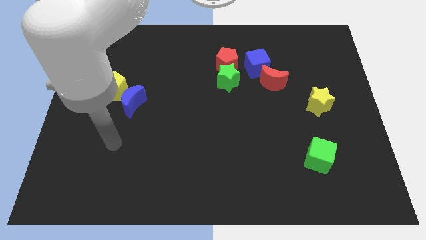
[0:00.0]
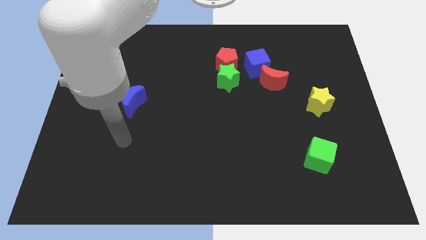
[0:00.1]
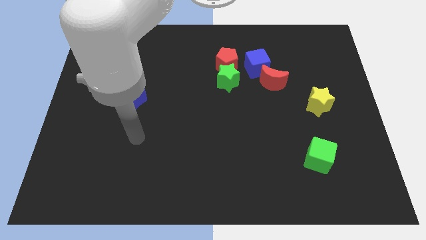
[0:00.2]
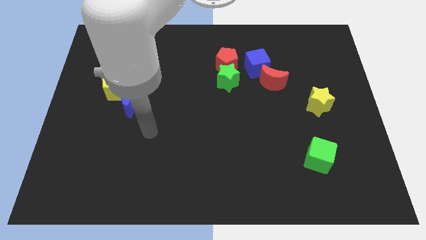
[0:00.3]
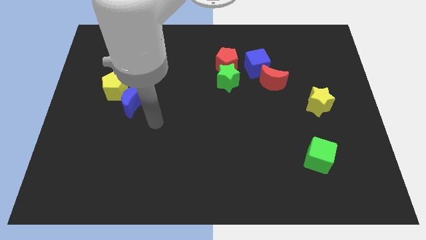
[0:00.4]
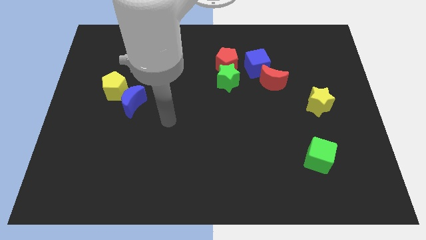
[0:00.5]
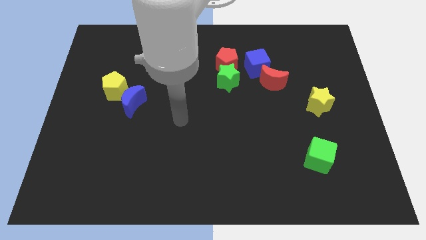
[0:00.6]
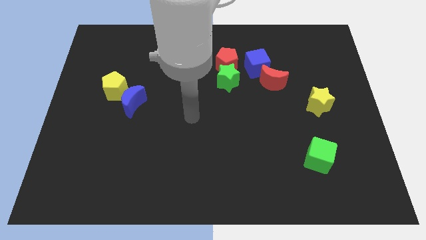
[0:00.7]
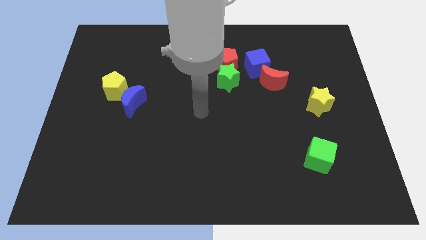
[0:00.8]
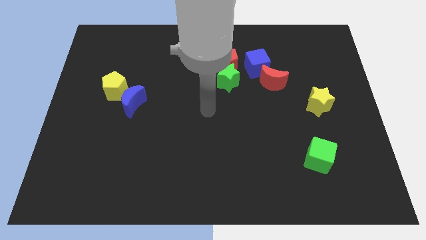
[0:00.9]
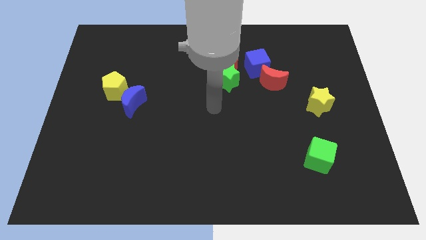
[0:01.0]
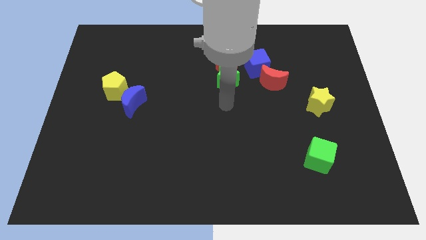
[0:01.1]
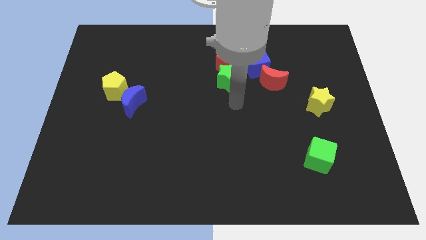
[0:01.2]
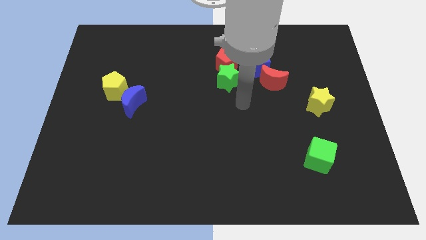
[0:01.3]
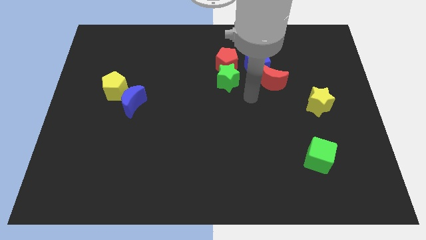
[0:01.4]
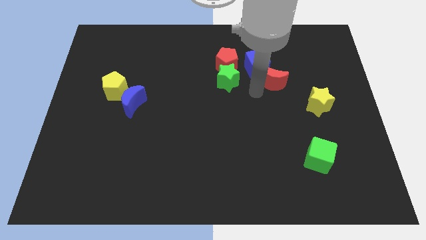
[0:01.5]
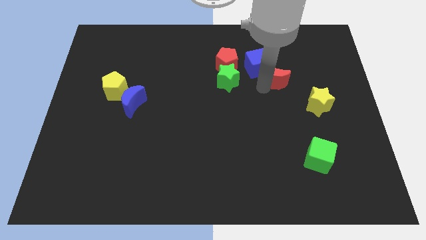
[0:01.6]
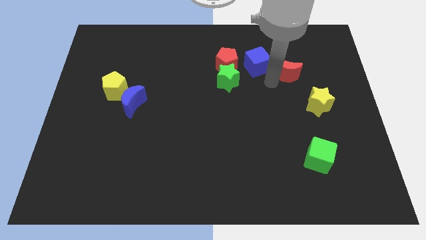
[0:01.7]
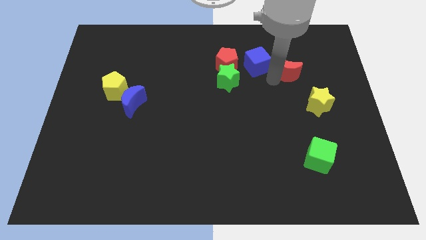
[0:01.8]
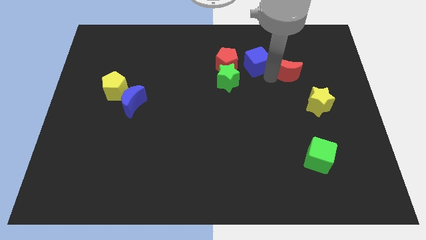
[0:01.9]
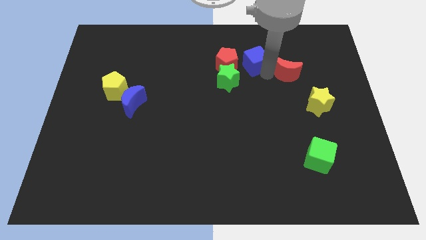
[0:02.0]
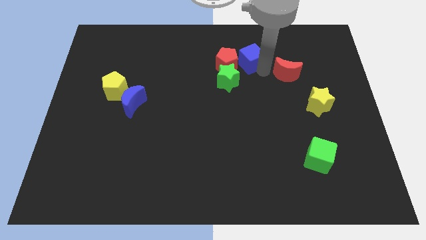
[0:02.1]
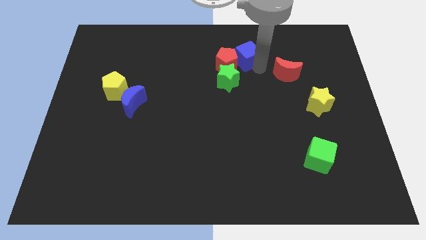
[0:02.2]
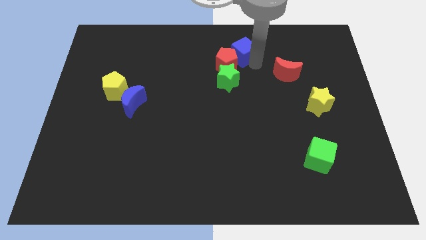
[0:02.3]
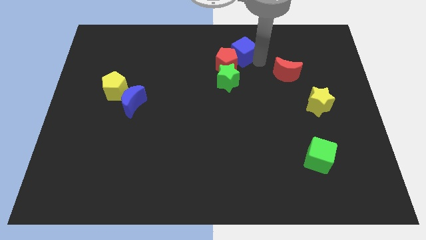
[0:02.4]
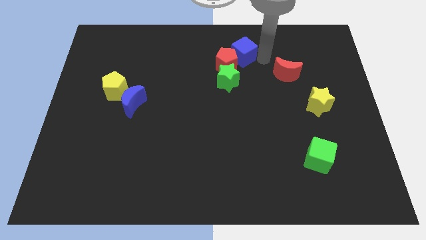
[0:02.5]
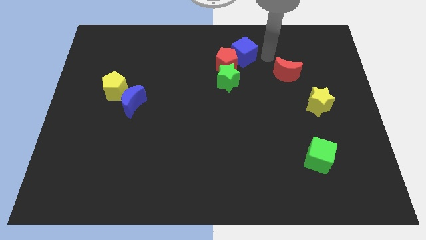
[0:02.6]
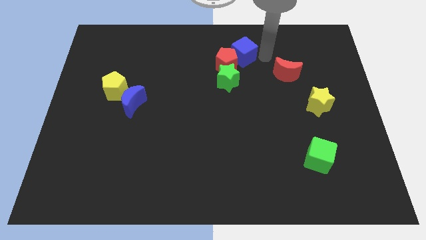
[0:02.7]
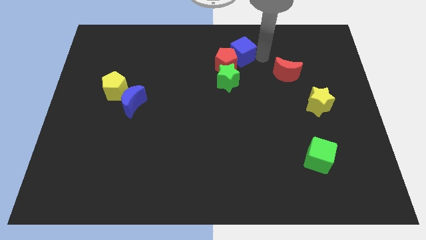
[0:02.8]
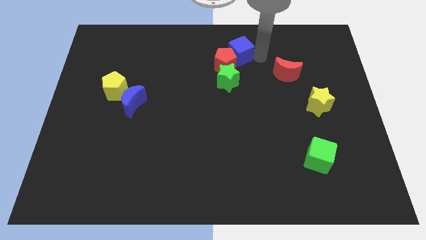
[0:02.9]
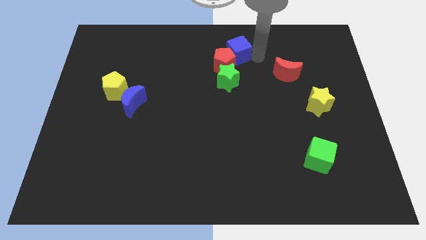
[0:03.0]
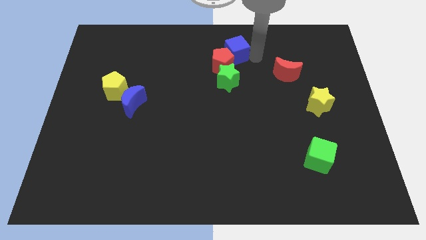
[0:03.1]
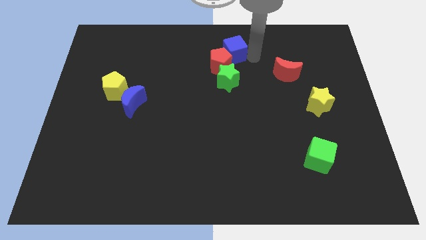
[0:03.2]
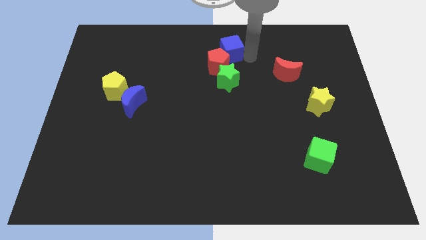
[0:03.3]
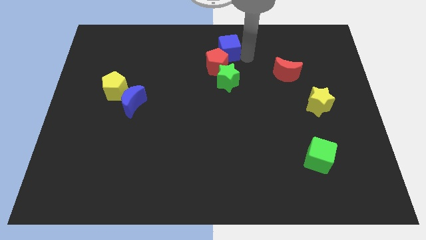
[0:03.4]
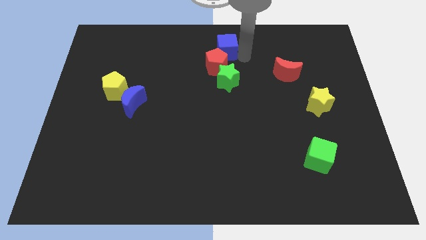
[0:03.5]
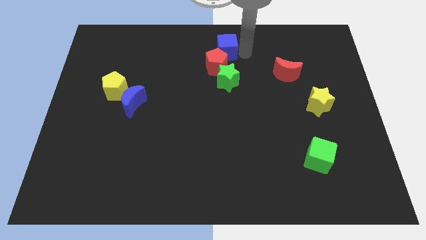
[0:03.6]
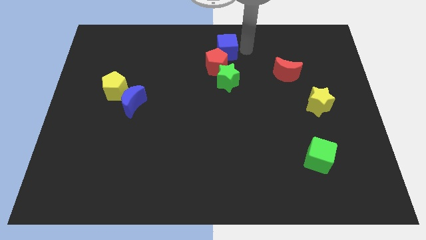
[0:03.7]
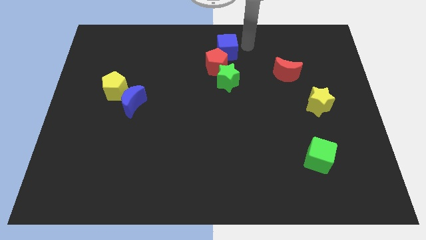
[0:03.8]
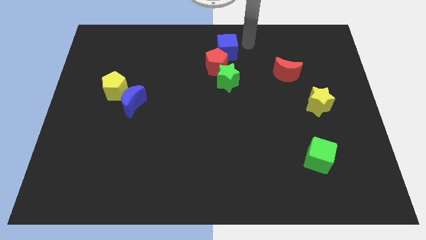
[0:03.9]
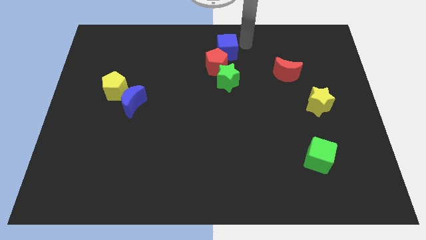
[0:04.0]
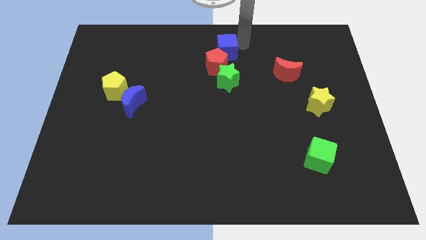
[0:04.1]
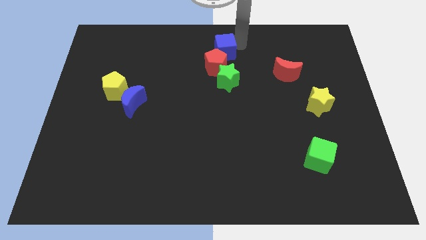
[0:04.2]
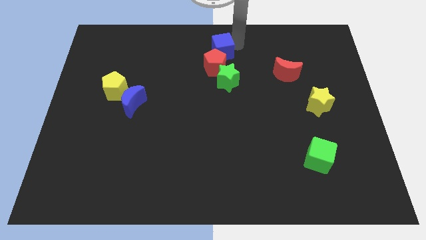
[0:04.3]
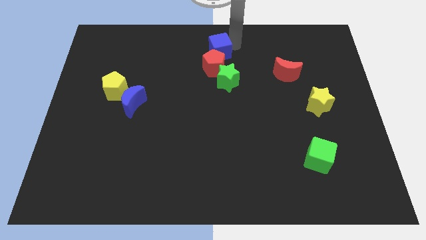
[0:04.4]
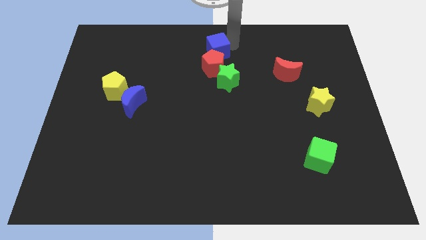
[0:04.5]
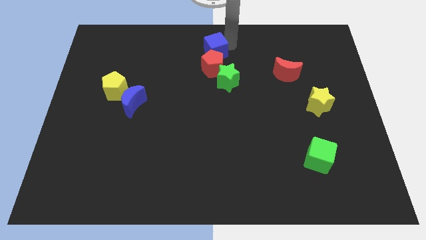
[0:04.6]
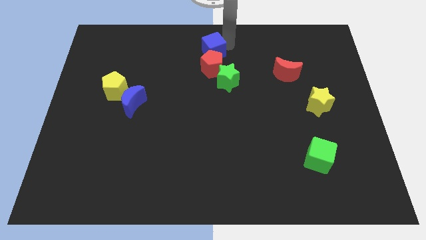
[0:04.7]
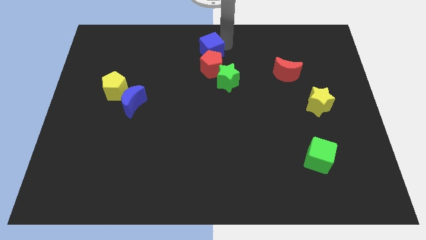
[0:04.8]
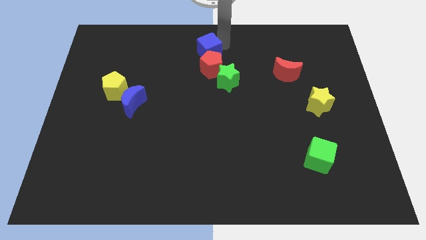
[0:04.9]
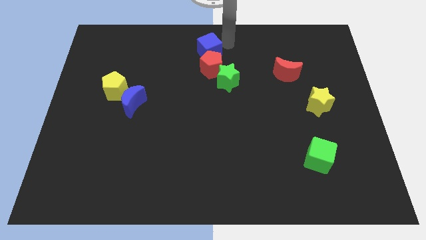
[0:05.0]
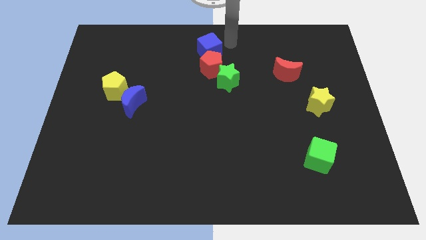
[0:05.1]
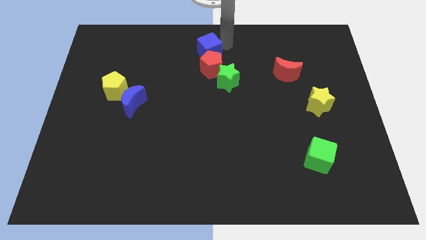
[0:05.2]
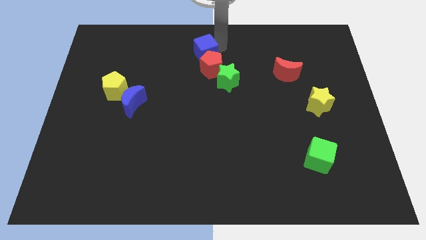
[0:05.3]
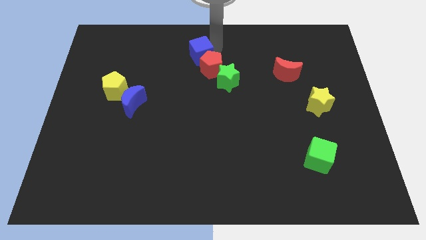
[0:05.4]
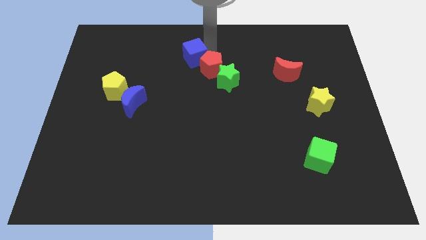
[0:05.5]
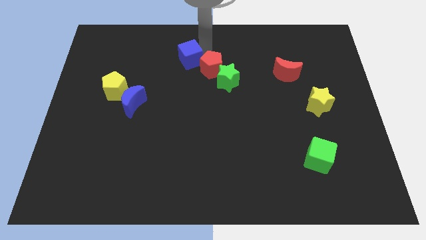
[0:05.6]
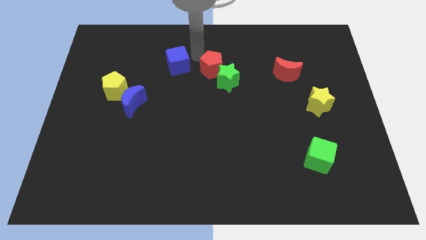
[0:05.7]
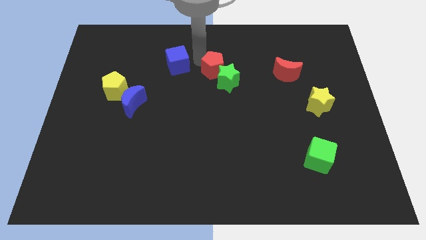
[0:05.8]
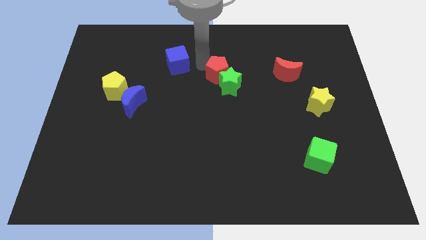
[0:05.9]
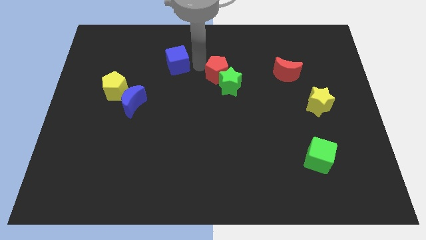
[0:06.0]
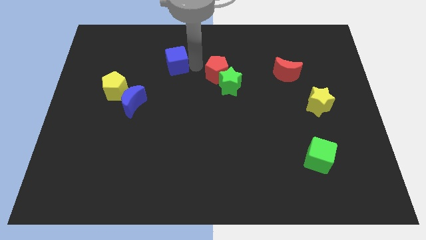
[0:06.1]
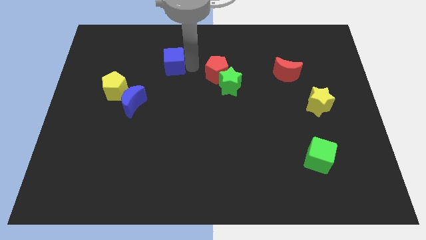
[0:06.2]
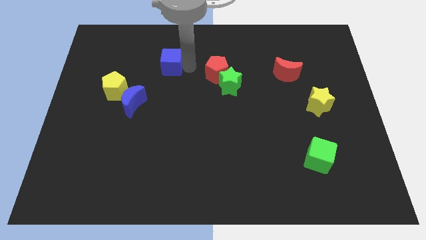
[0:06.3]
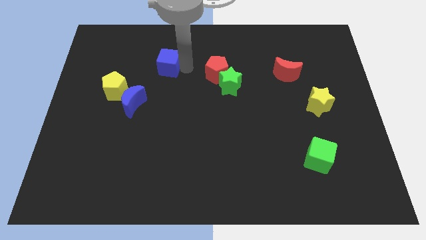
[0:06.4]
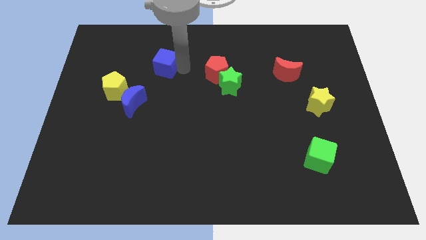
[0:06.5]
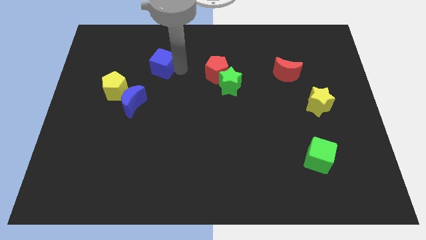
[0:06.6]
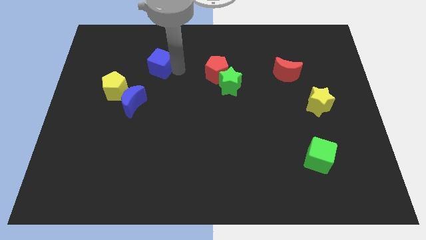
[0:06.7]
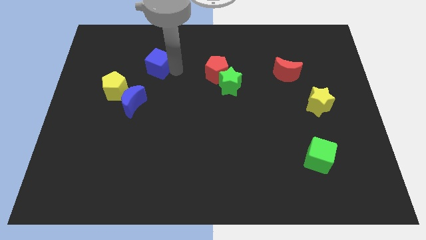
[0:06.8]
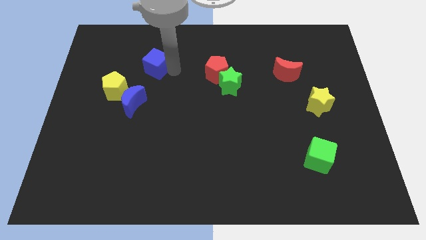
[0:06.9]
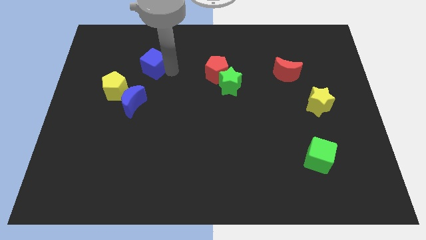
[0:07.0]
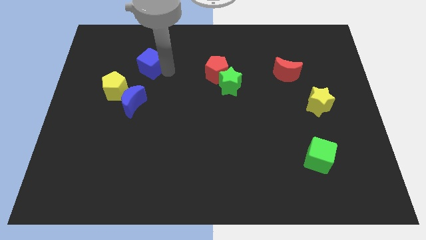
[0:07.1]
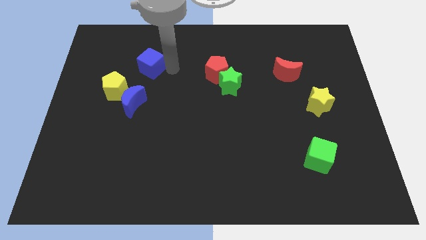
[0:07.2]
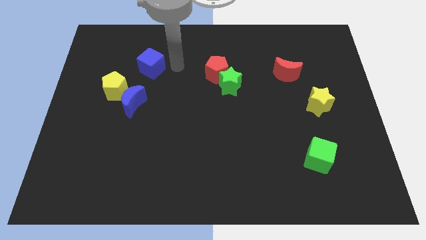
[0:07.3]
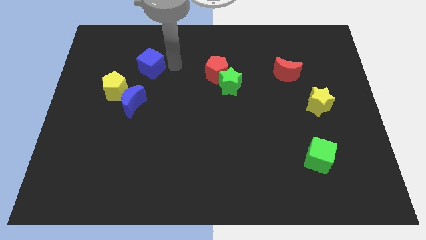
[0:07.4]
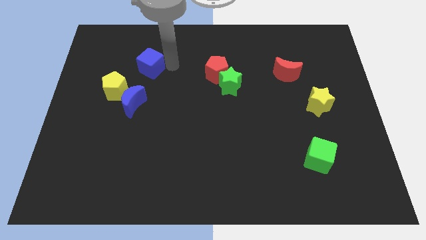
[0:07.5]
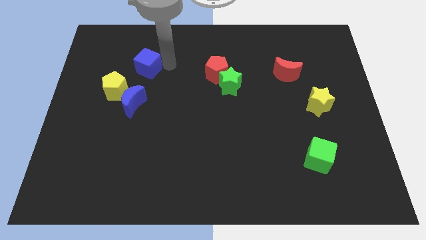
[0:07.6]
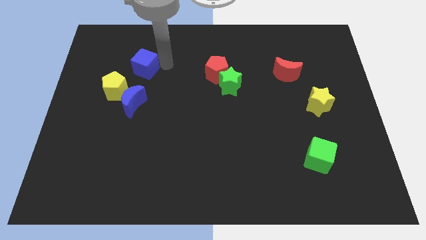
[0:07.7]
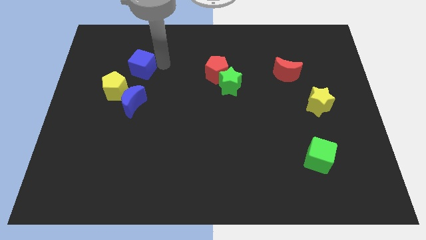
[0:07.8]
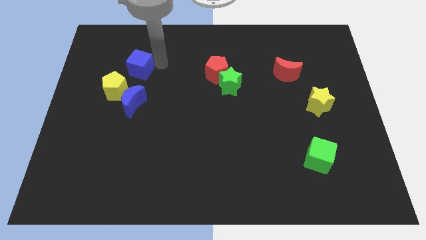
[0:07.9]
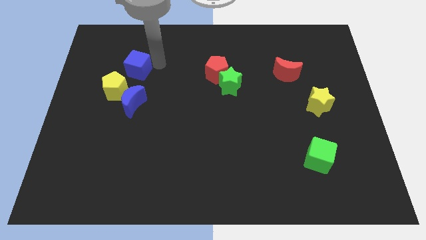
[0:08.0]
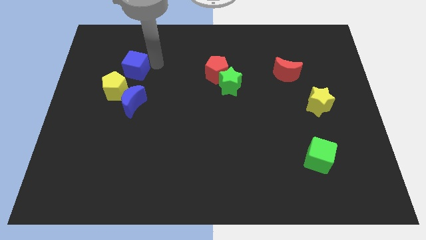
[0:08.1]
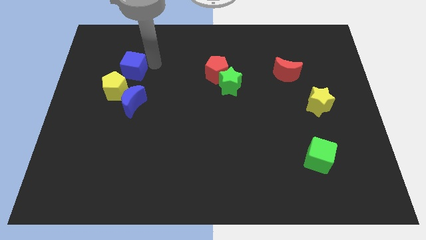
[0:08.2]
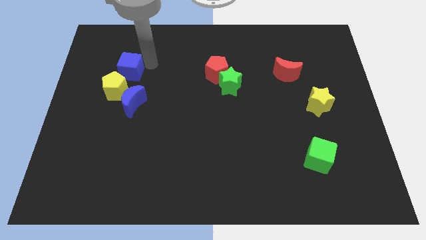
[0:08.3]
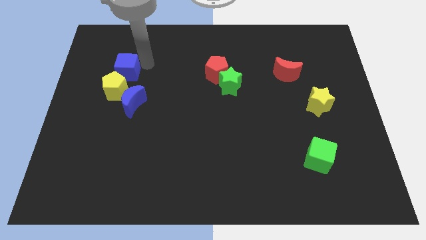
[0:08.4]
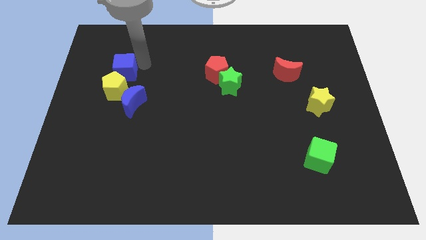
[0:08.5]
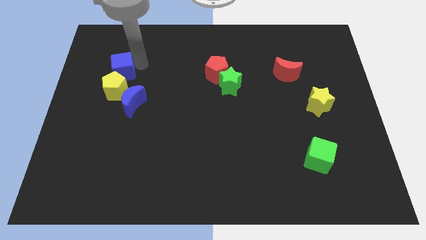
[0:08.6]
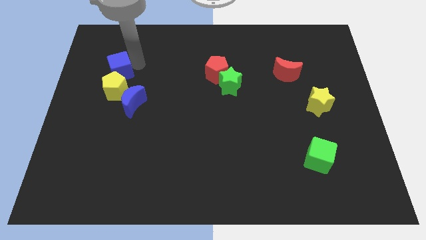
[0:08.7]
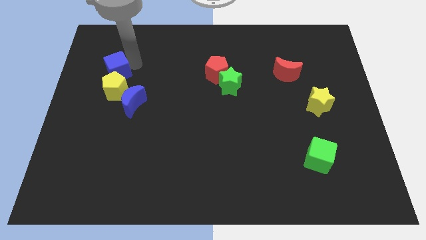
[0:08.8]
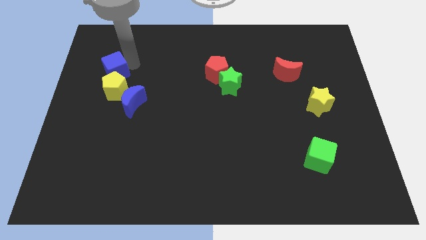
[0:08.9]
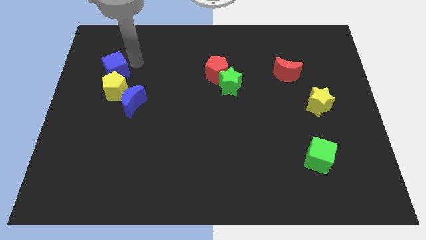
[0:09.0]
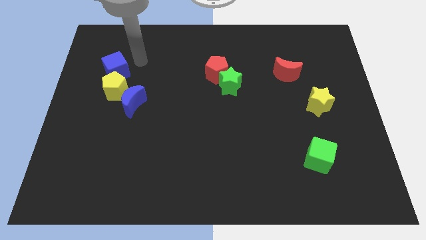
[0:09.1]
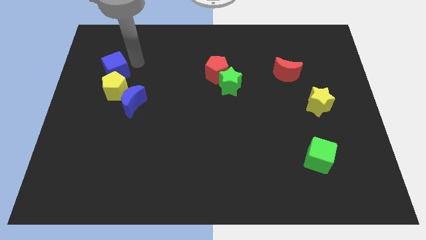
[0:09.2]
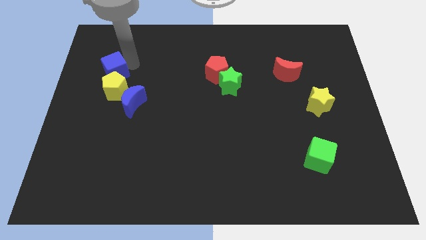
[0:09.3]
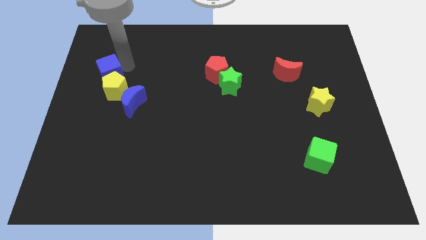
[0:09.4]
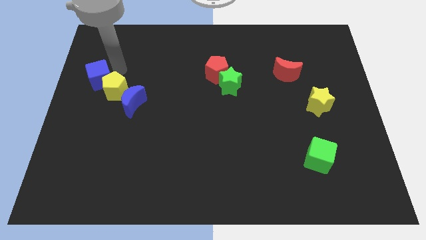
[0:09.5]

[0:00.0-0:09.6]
slide the blue cube to the left side
